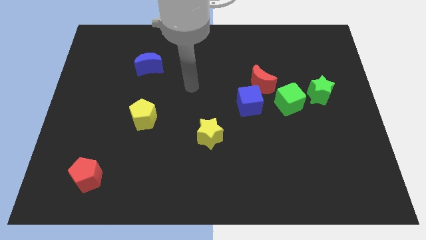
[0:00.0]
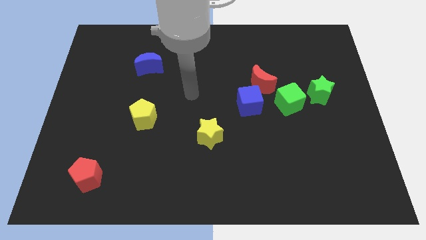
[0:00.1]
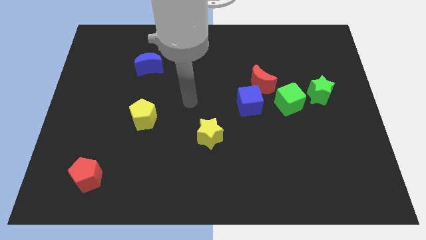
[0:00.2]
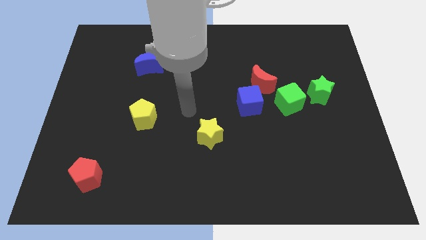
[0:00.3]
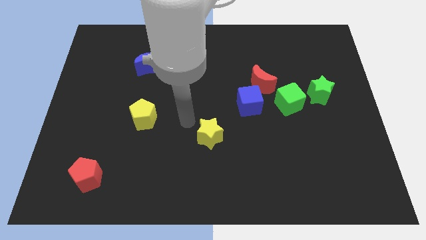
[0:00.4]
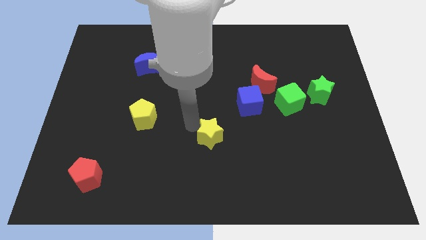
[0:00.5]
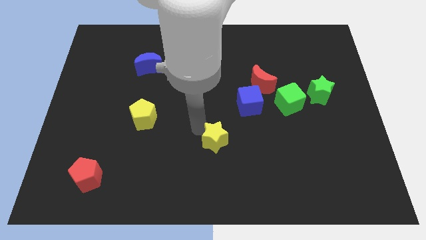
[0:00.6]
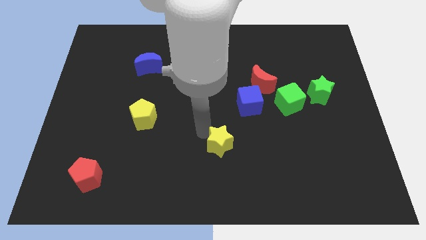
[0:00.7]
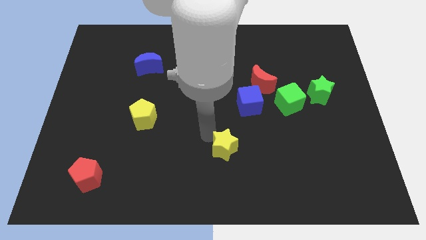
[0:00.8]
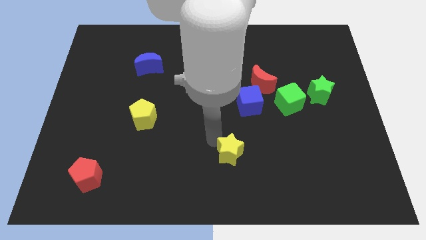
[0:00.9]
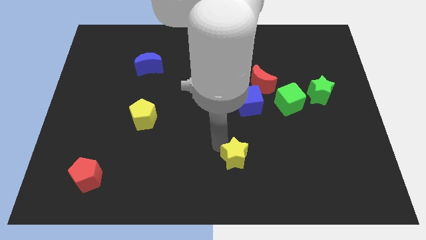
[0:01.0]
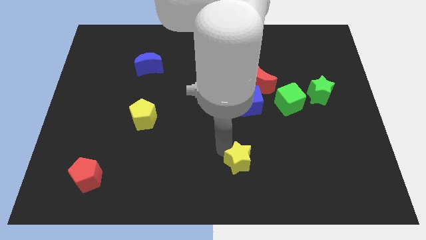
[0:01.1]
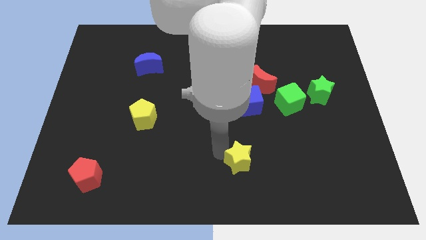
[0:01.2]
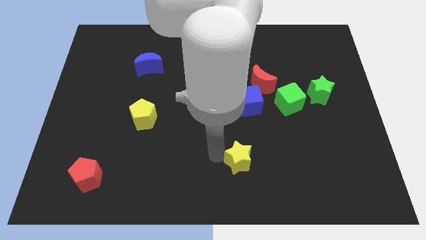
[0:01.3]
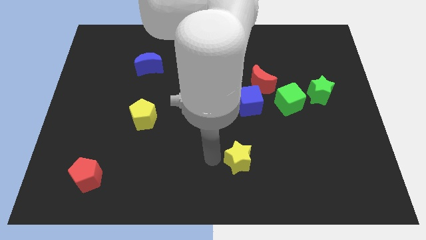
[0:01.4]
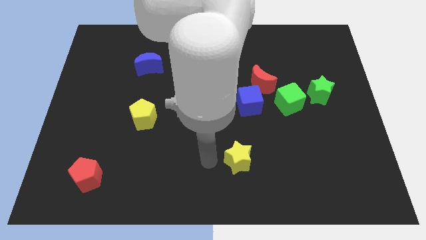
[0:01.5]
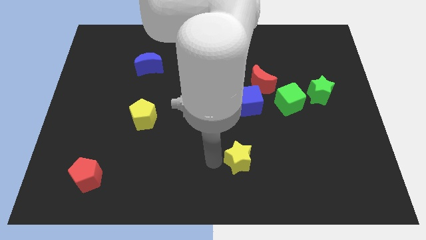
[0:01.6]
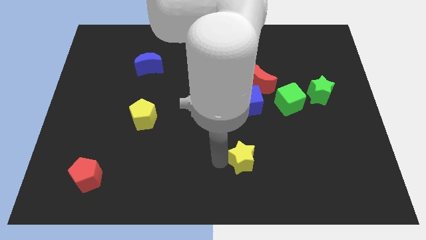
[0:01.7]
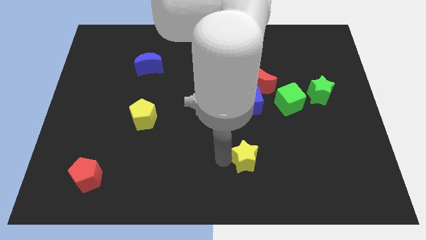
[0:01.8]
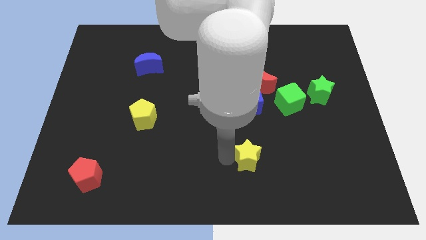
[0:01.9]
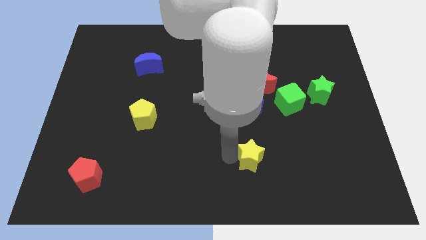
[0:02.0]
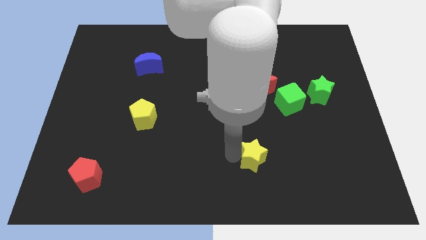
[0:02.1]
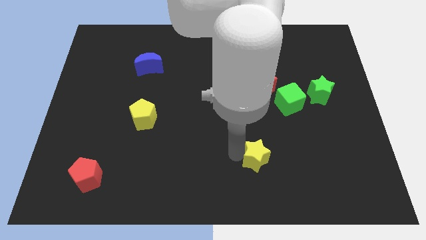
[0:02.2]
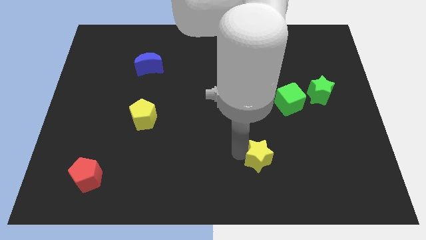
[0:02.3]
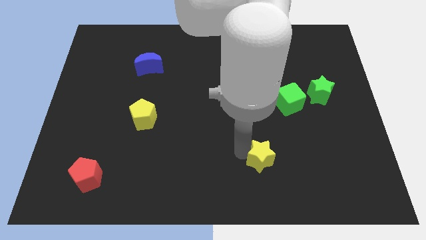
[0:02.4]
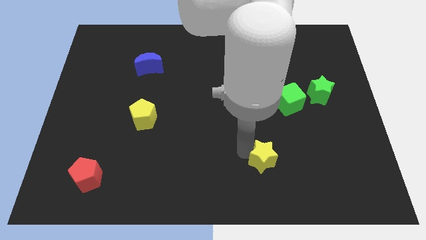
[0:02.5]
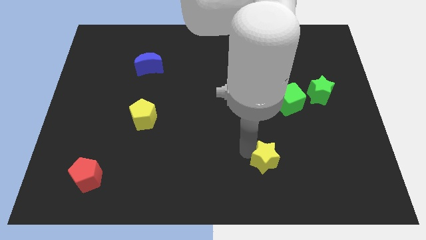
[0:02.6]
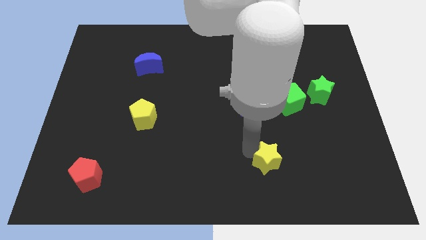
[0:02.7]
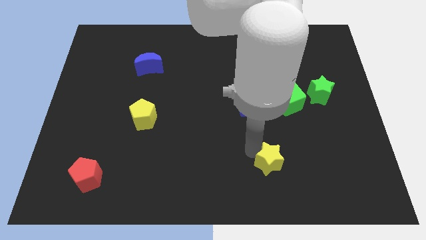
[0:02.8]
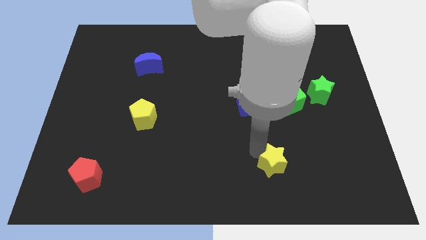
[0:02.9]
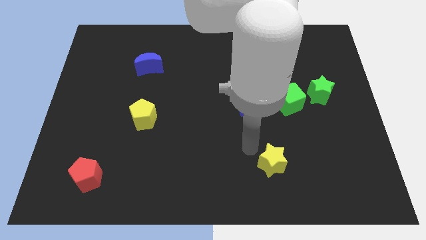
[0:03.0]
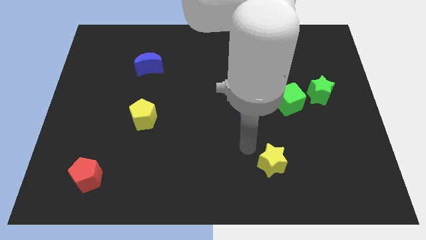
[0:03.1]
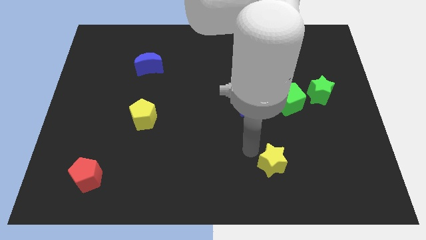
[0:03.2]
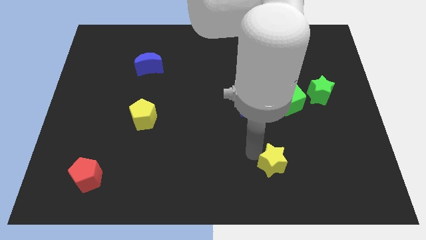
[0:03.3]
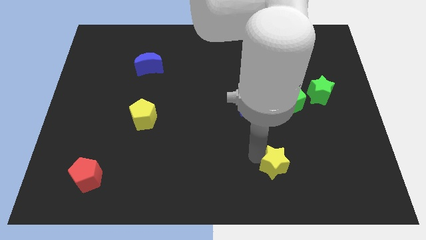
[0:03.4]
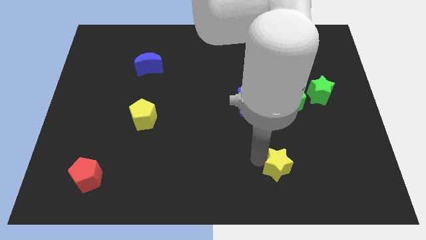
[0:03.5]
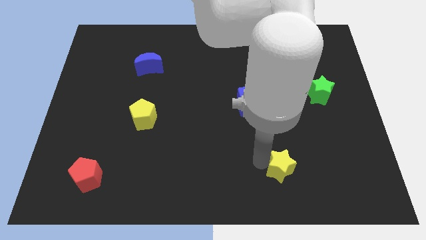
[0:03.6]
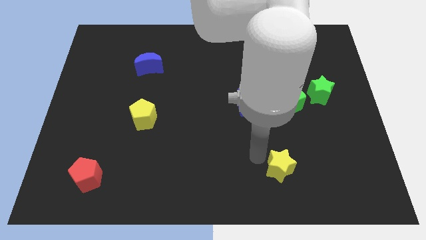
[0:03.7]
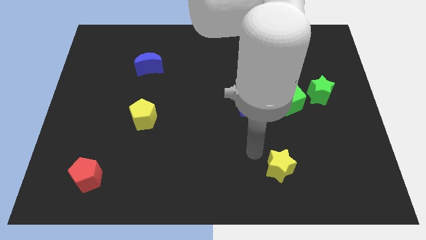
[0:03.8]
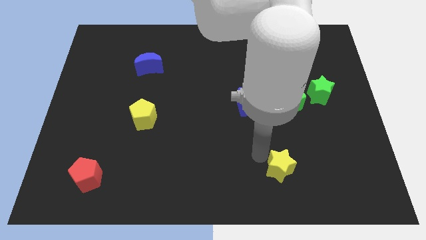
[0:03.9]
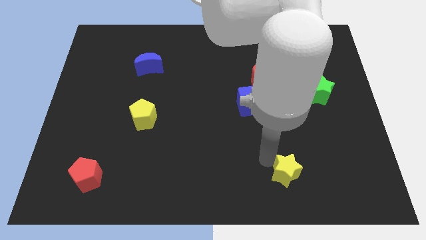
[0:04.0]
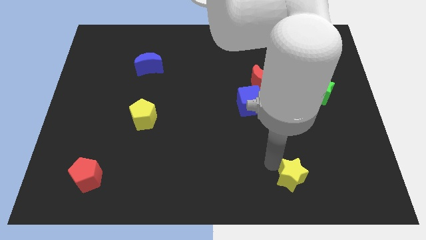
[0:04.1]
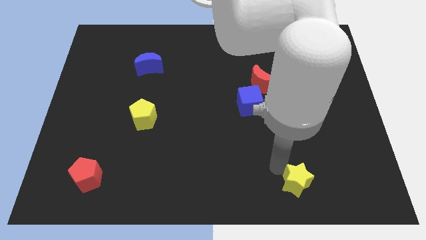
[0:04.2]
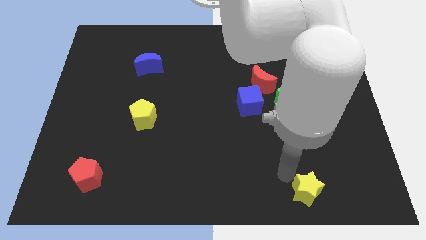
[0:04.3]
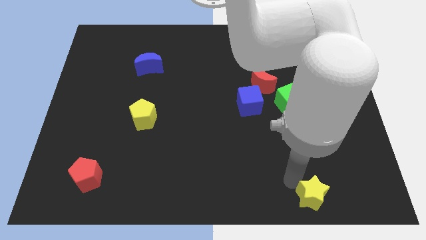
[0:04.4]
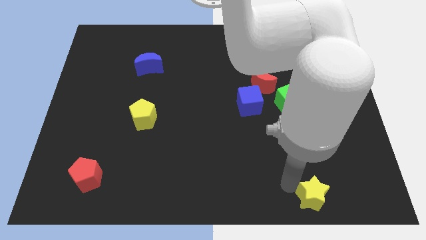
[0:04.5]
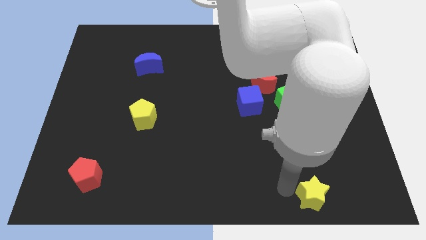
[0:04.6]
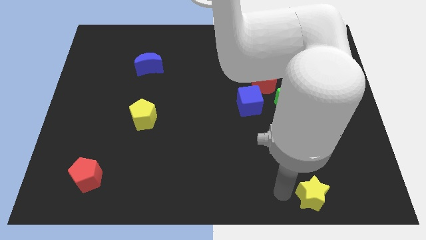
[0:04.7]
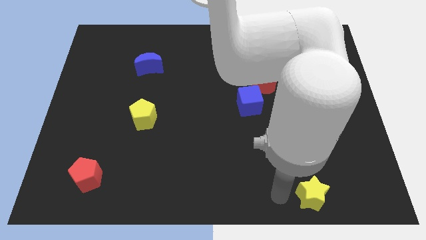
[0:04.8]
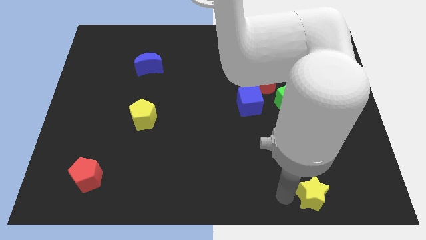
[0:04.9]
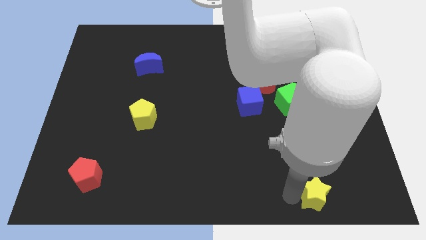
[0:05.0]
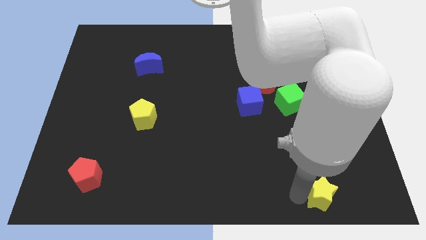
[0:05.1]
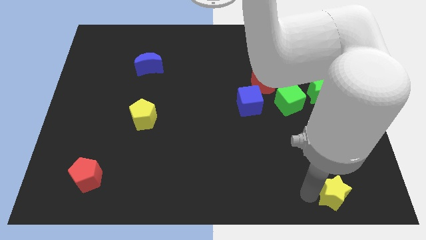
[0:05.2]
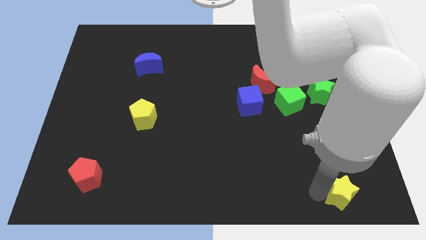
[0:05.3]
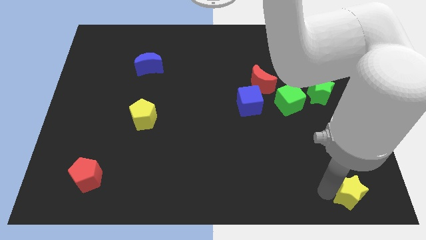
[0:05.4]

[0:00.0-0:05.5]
move the yellow star to the lower right corner

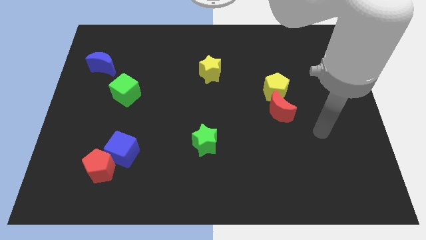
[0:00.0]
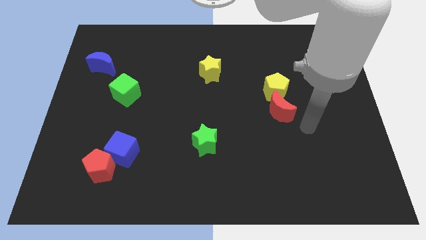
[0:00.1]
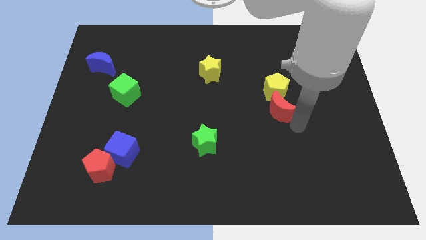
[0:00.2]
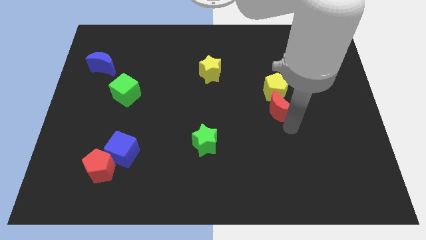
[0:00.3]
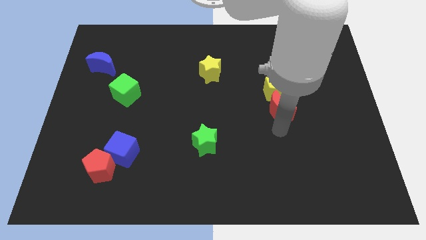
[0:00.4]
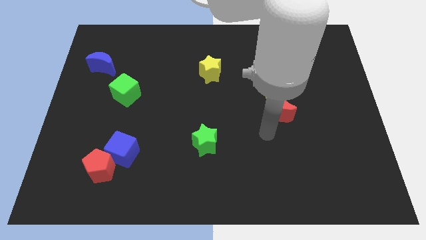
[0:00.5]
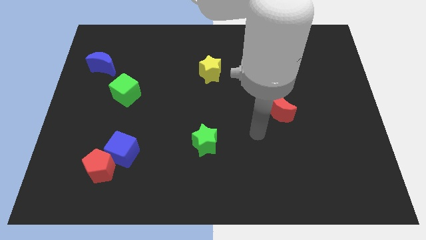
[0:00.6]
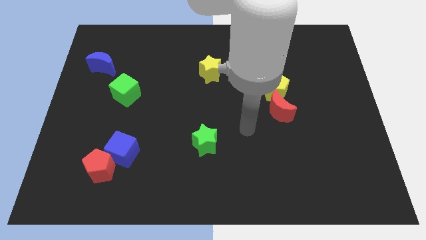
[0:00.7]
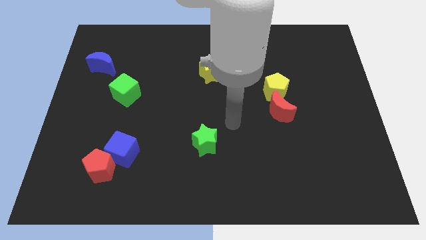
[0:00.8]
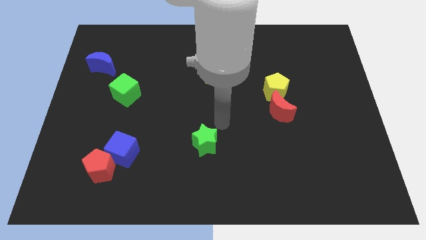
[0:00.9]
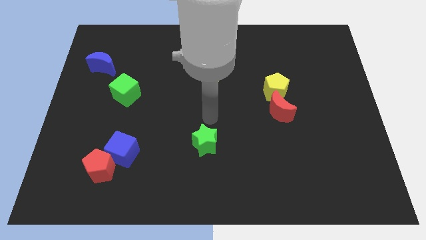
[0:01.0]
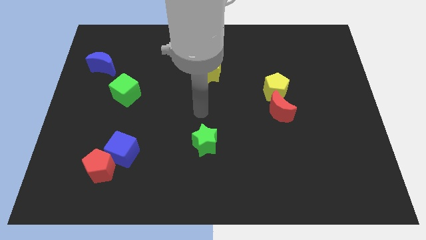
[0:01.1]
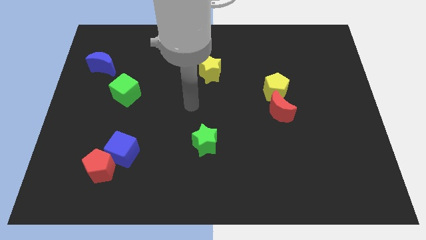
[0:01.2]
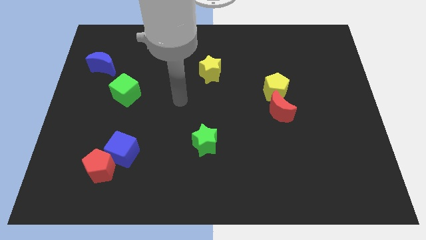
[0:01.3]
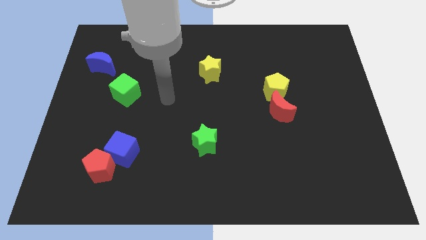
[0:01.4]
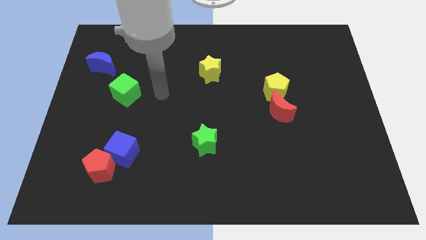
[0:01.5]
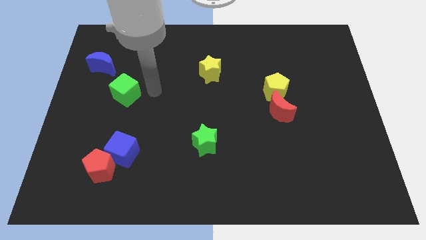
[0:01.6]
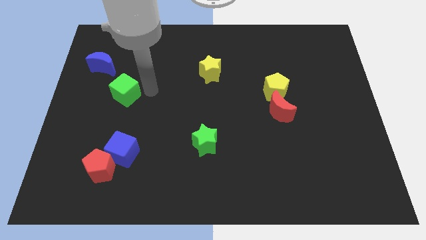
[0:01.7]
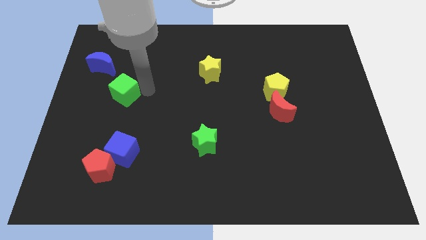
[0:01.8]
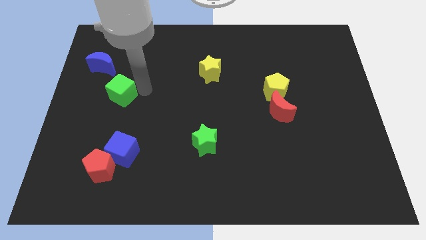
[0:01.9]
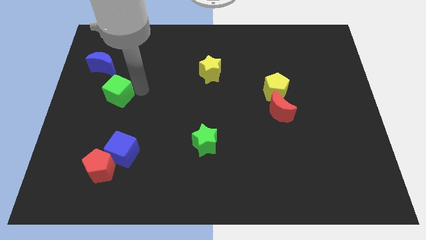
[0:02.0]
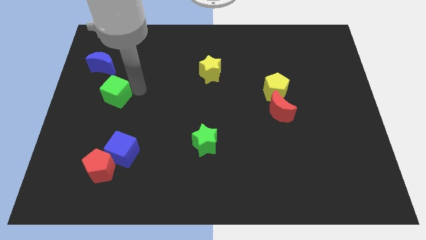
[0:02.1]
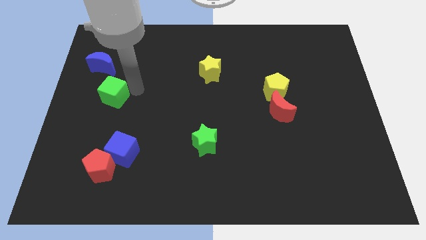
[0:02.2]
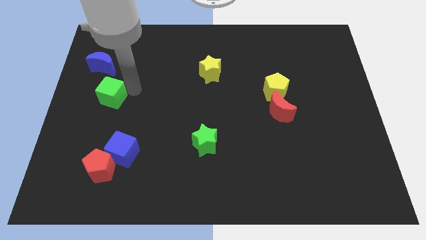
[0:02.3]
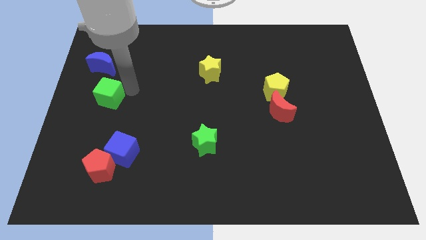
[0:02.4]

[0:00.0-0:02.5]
put the green cube to the center left
